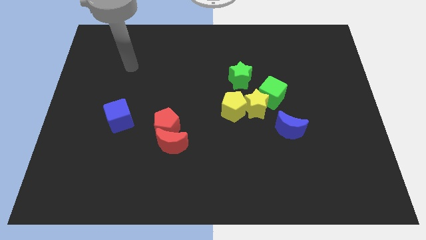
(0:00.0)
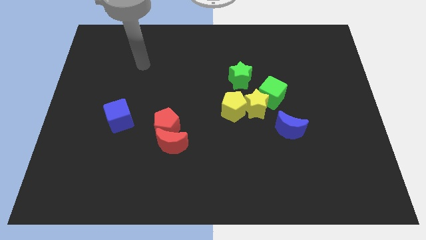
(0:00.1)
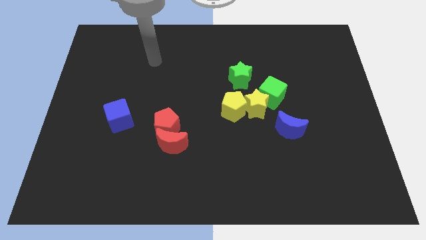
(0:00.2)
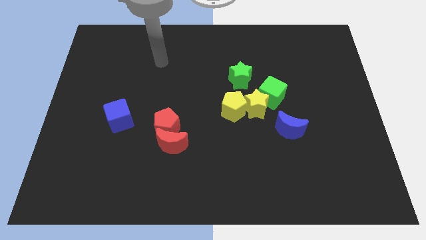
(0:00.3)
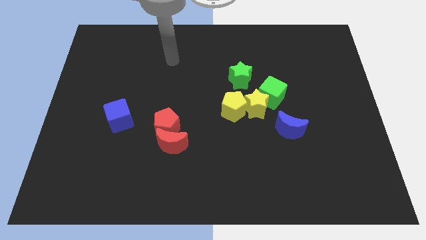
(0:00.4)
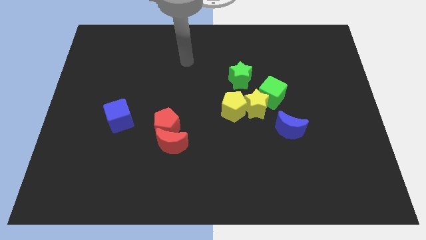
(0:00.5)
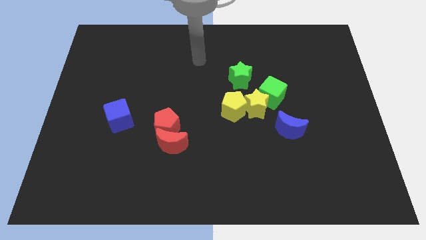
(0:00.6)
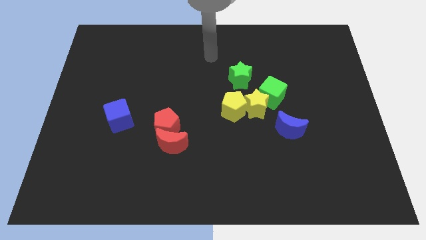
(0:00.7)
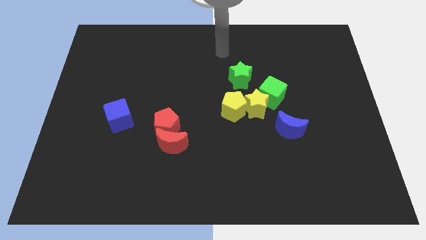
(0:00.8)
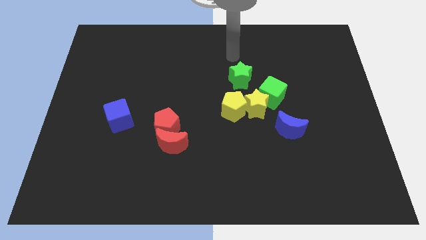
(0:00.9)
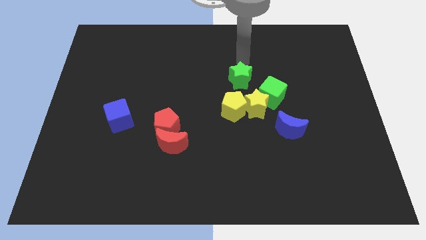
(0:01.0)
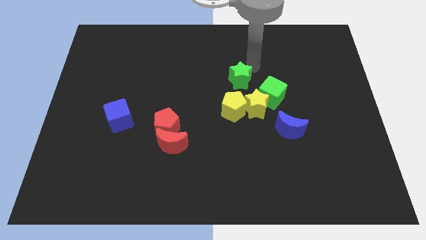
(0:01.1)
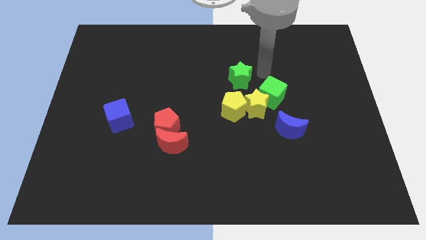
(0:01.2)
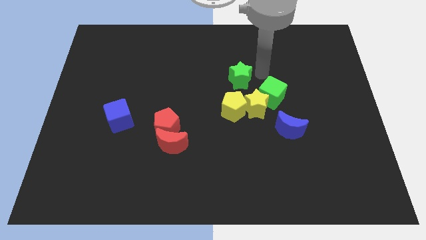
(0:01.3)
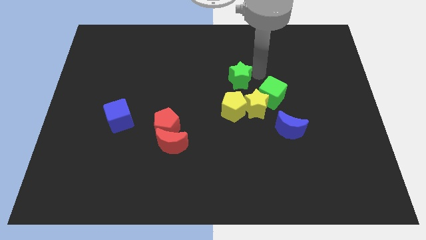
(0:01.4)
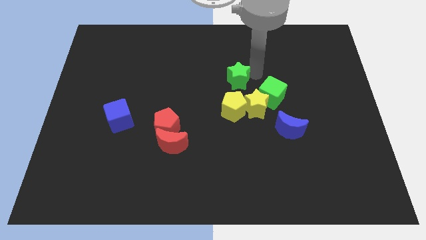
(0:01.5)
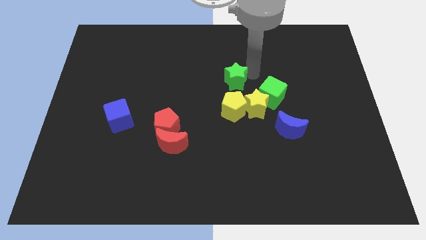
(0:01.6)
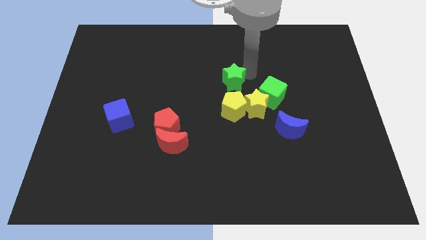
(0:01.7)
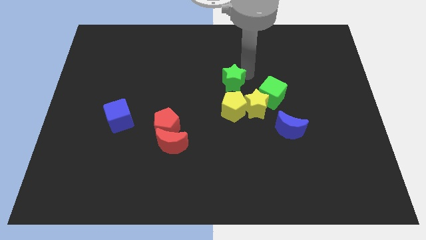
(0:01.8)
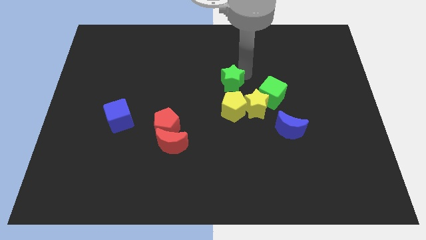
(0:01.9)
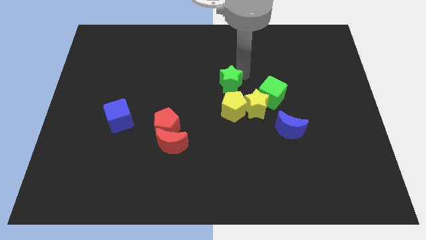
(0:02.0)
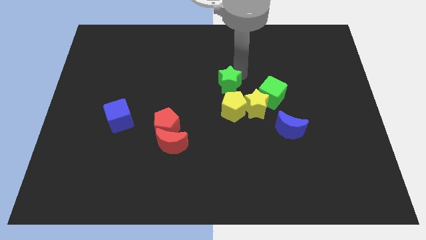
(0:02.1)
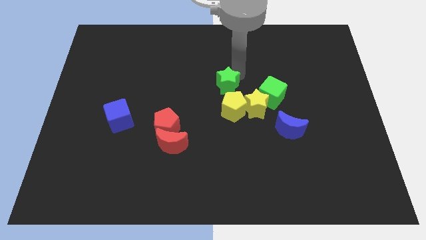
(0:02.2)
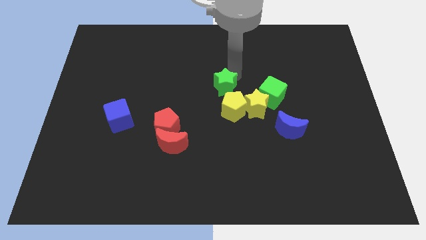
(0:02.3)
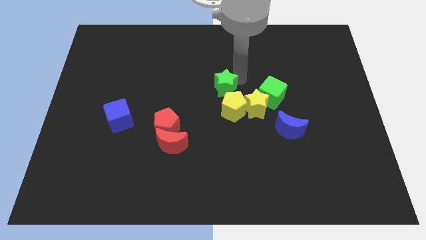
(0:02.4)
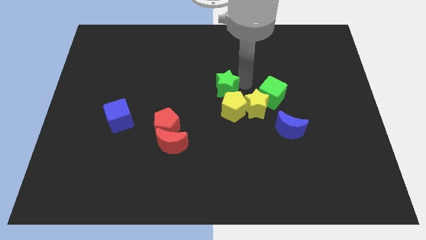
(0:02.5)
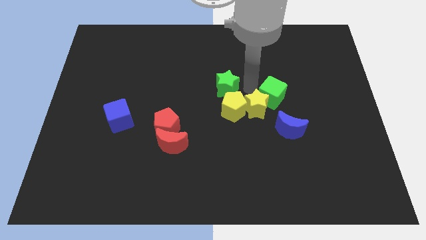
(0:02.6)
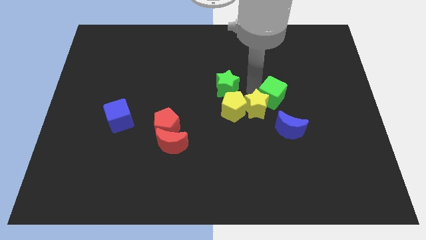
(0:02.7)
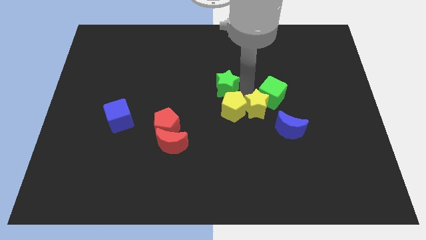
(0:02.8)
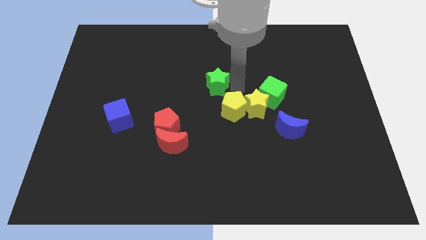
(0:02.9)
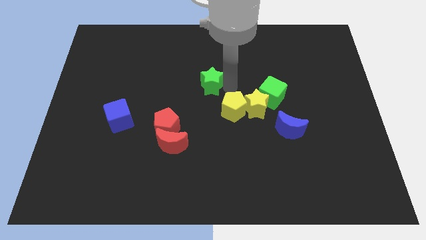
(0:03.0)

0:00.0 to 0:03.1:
push the green star left a little

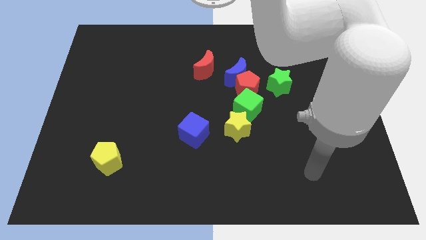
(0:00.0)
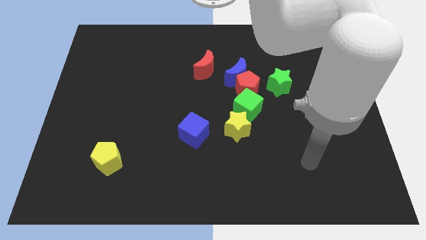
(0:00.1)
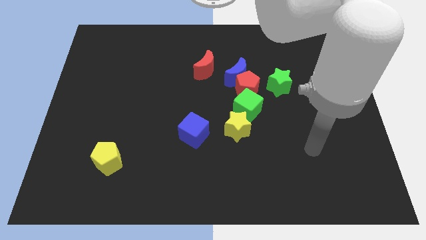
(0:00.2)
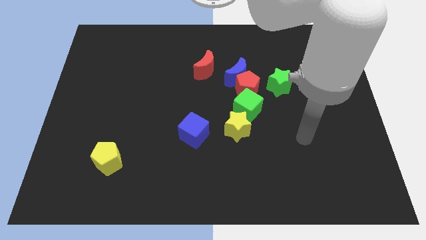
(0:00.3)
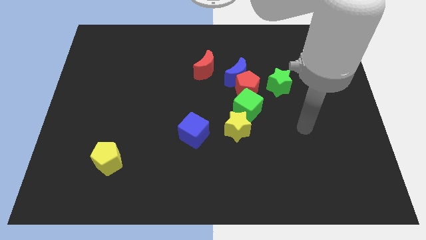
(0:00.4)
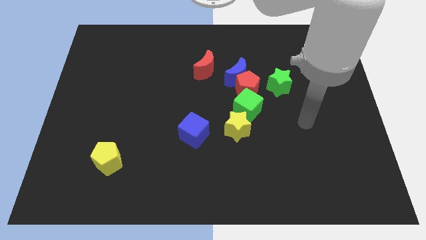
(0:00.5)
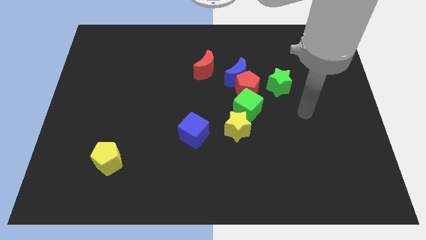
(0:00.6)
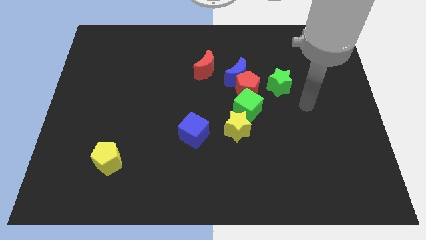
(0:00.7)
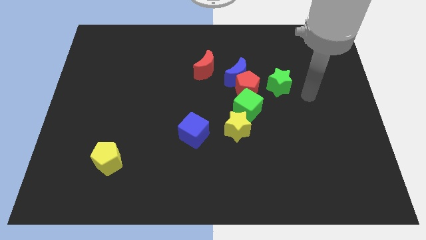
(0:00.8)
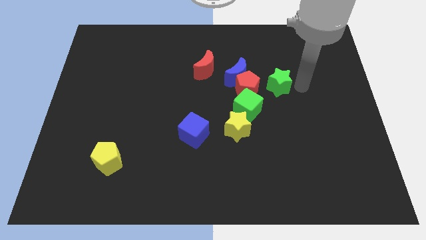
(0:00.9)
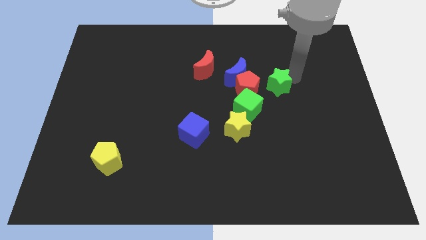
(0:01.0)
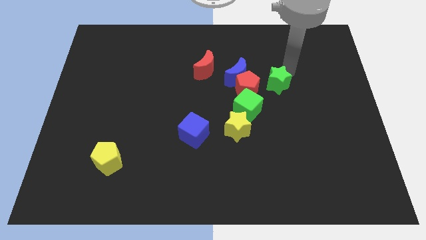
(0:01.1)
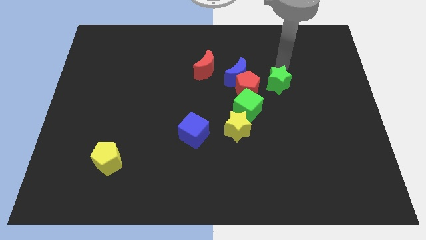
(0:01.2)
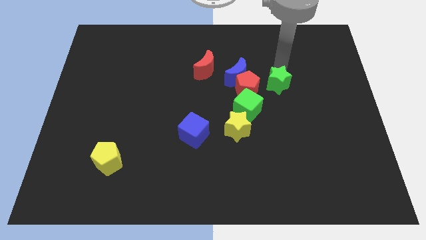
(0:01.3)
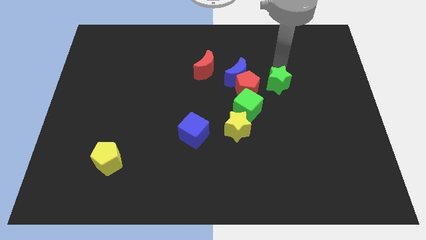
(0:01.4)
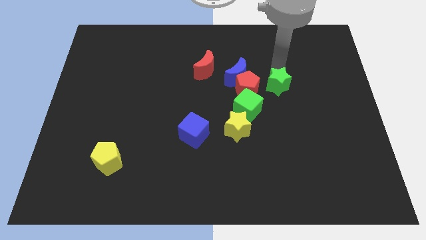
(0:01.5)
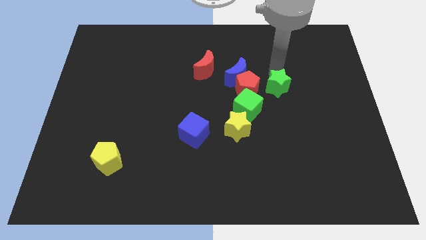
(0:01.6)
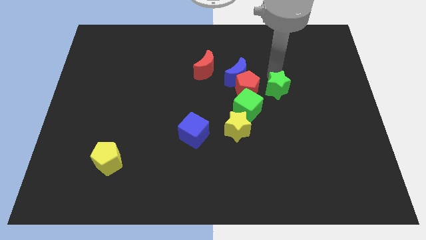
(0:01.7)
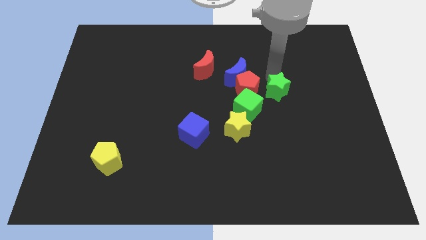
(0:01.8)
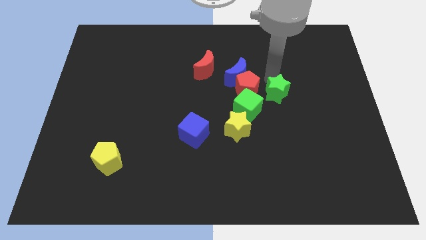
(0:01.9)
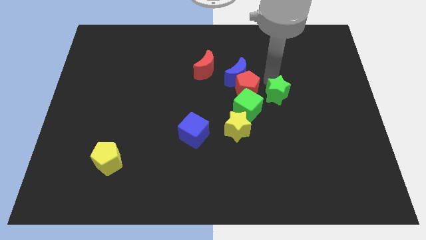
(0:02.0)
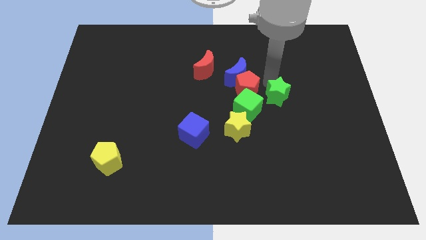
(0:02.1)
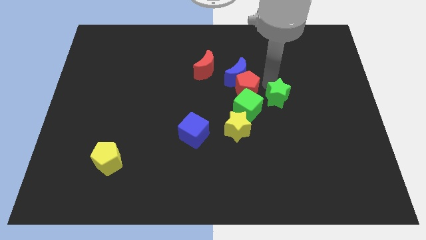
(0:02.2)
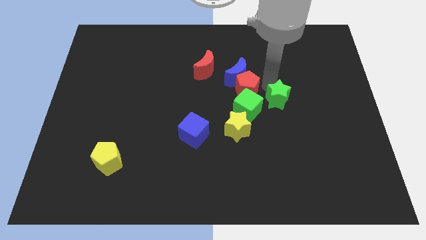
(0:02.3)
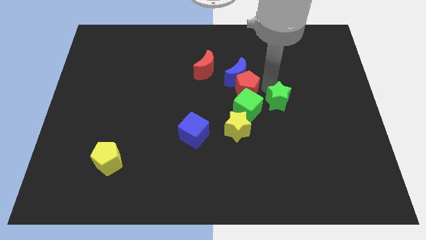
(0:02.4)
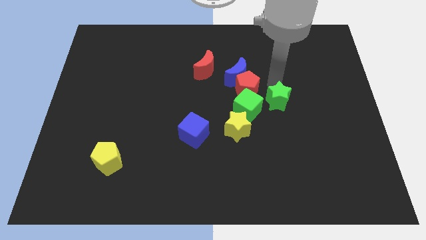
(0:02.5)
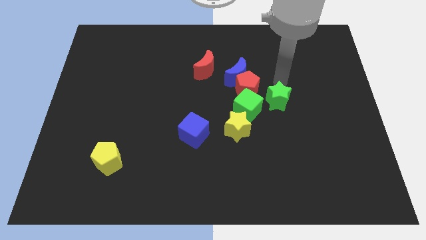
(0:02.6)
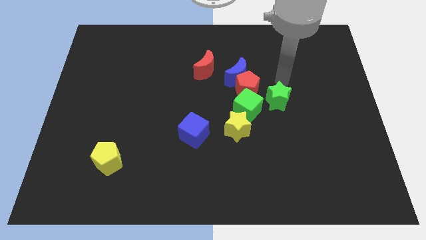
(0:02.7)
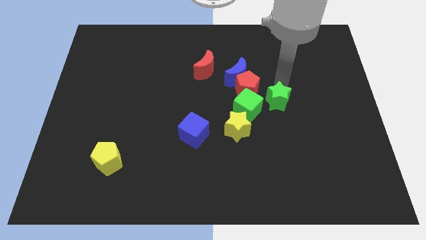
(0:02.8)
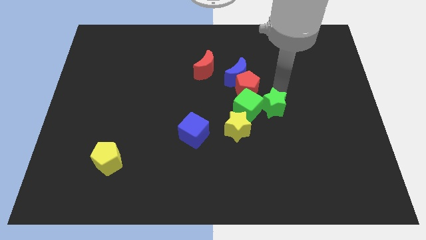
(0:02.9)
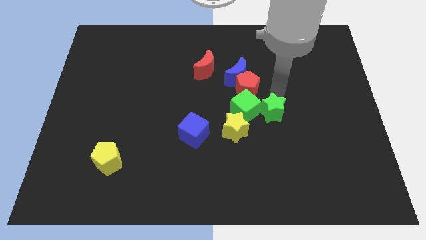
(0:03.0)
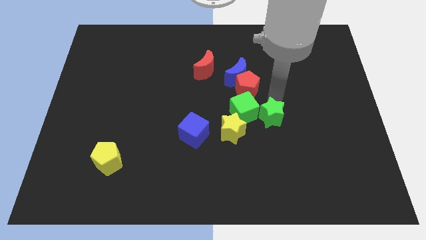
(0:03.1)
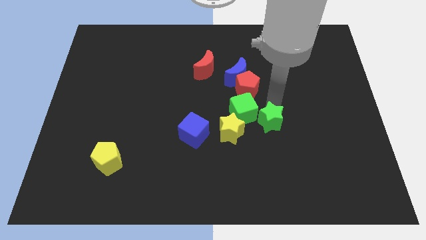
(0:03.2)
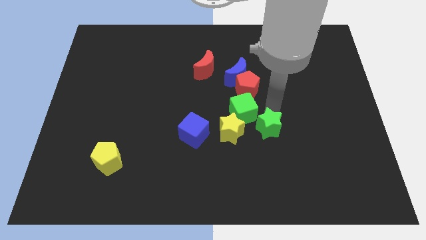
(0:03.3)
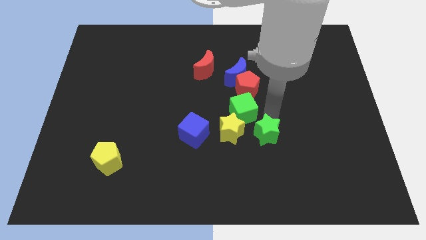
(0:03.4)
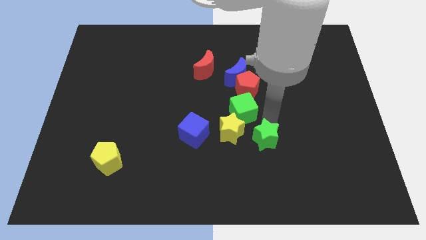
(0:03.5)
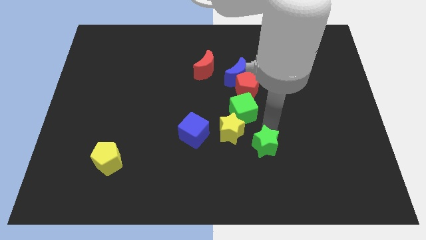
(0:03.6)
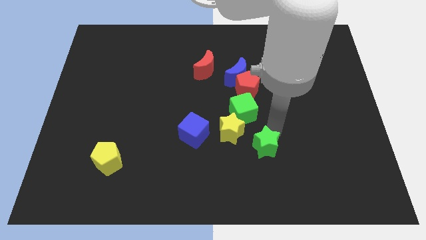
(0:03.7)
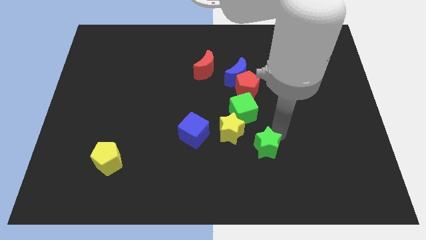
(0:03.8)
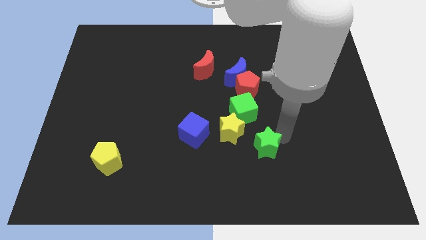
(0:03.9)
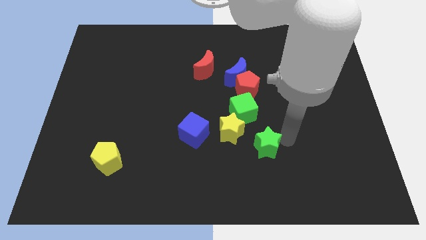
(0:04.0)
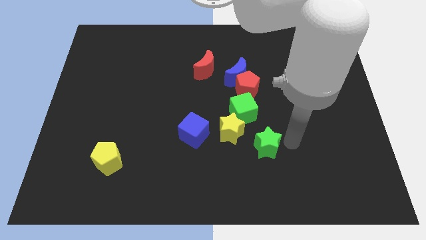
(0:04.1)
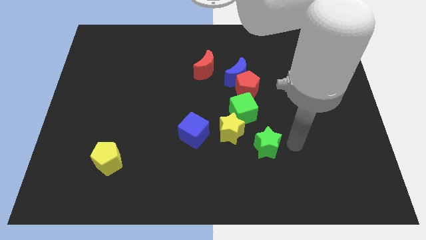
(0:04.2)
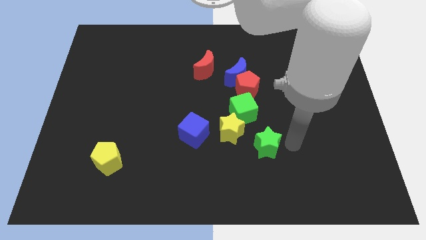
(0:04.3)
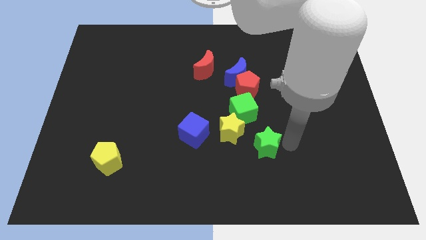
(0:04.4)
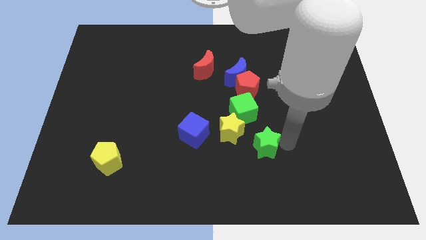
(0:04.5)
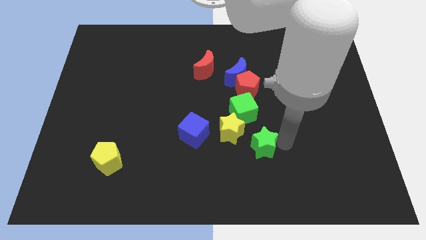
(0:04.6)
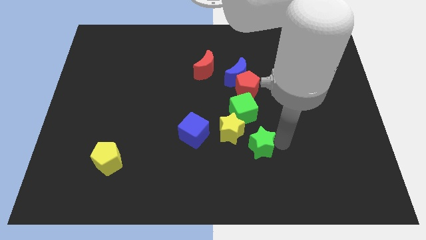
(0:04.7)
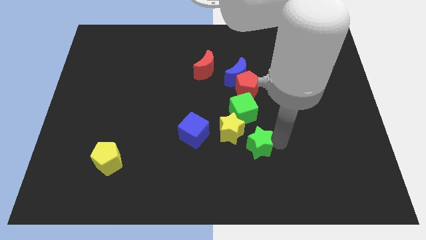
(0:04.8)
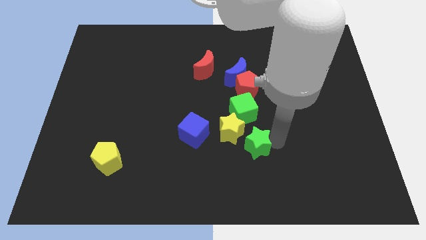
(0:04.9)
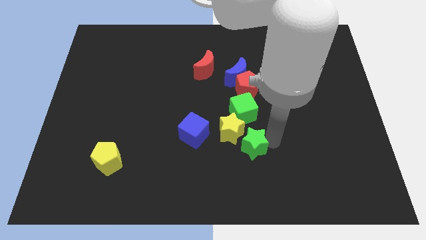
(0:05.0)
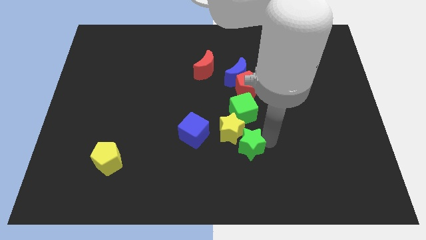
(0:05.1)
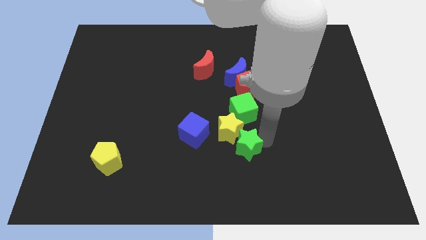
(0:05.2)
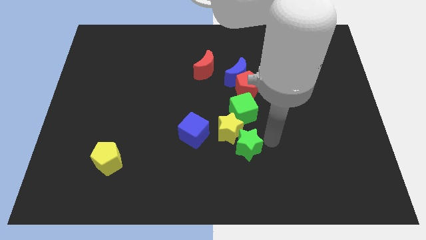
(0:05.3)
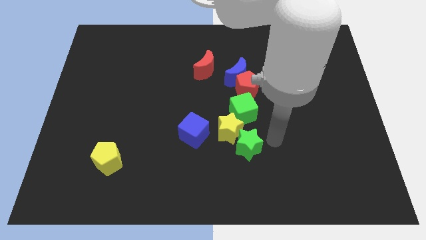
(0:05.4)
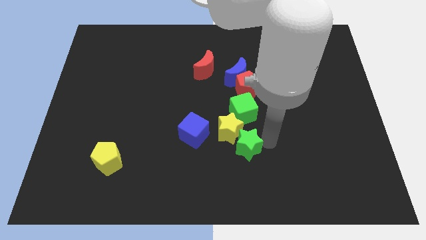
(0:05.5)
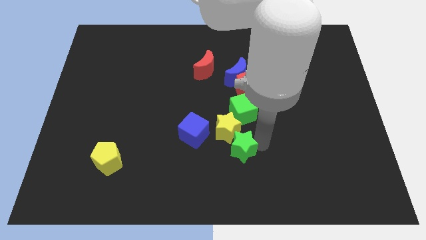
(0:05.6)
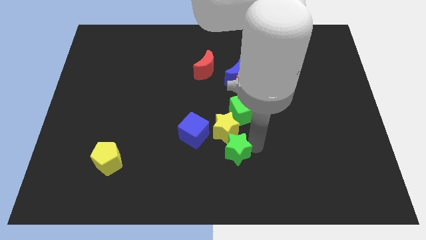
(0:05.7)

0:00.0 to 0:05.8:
slide the green star downwards and then left
